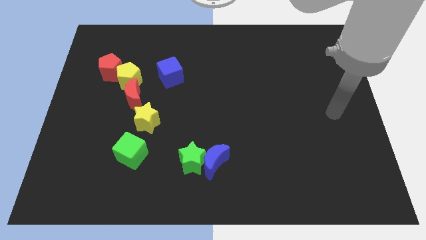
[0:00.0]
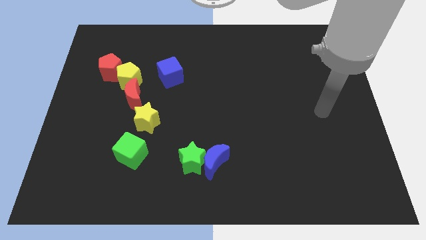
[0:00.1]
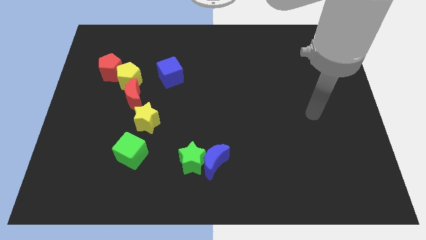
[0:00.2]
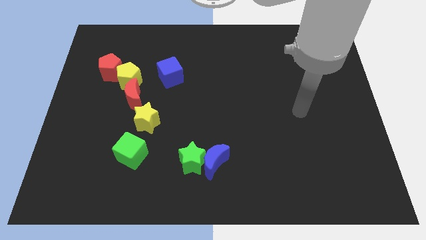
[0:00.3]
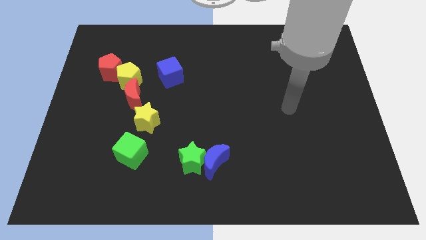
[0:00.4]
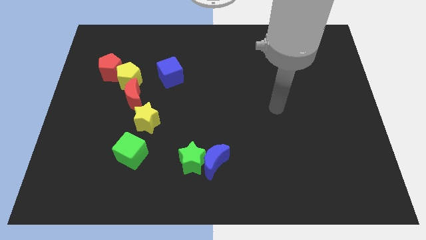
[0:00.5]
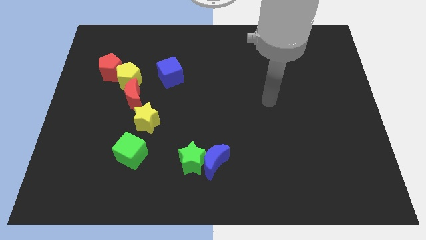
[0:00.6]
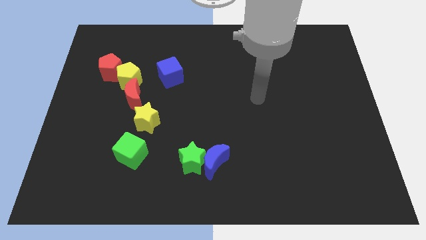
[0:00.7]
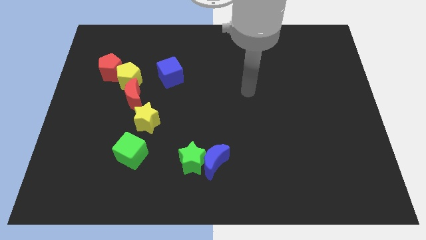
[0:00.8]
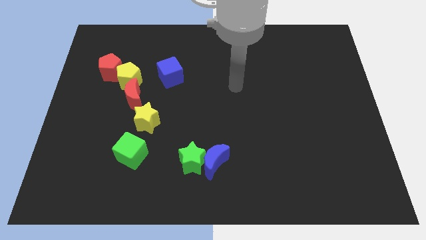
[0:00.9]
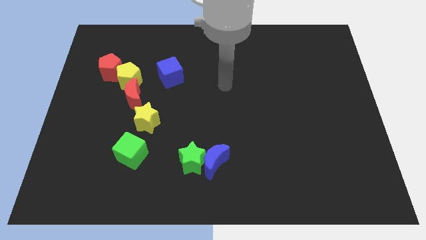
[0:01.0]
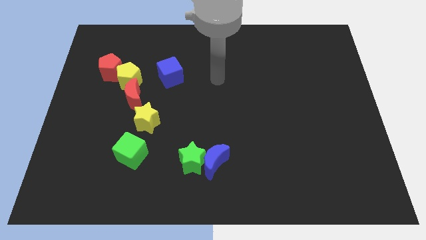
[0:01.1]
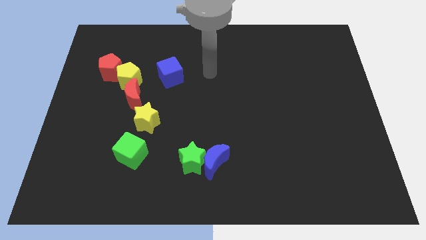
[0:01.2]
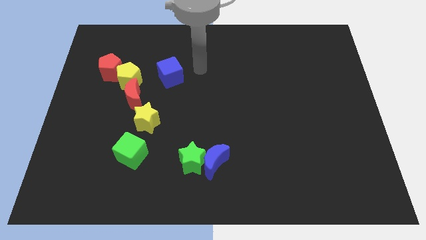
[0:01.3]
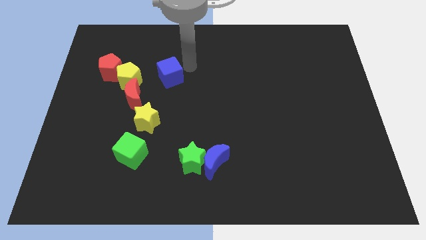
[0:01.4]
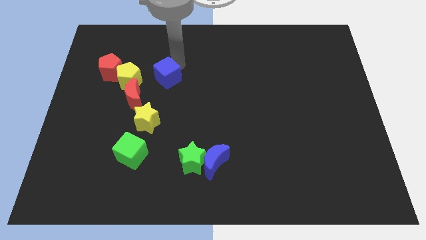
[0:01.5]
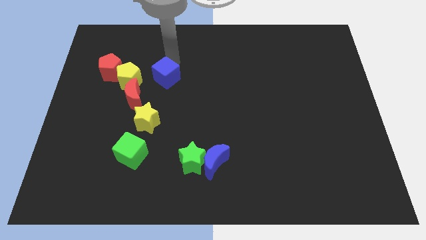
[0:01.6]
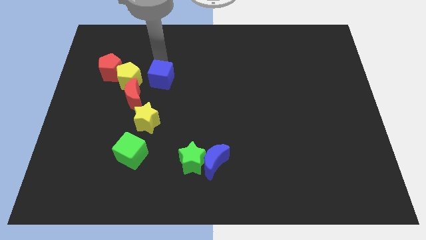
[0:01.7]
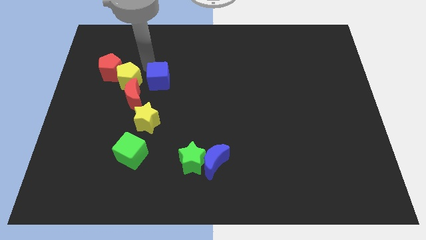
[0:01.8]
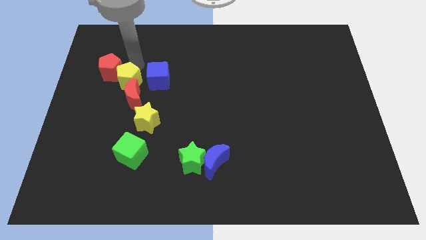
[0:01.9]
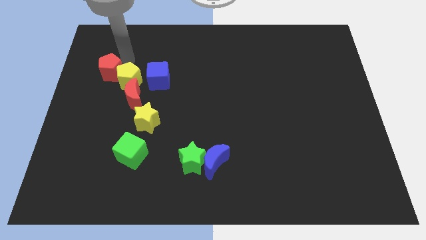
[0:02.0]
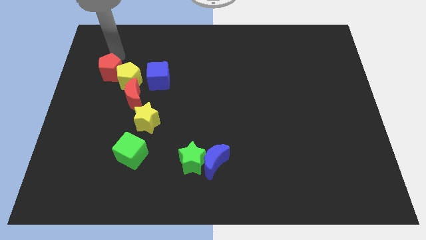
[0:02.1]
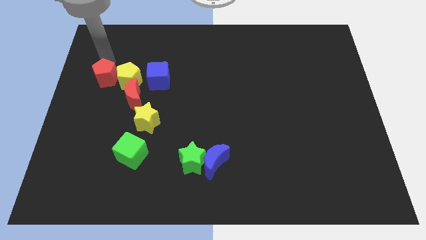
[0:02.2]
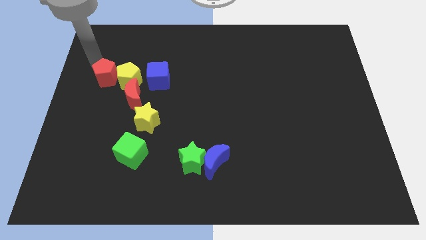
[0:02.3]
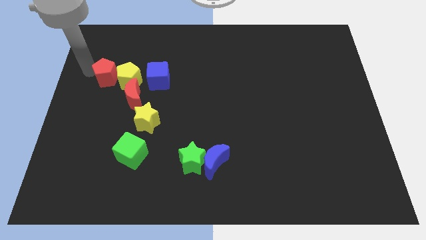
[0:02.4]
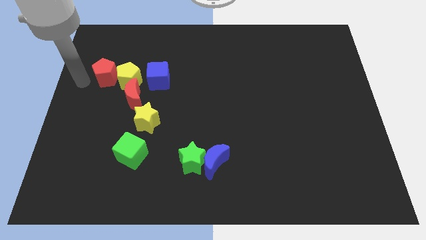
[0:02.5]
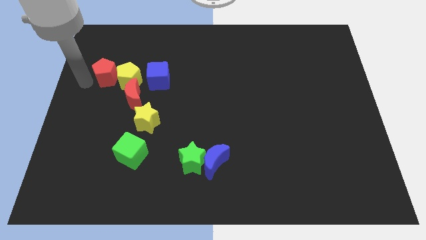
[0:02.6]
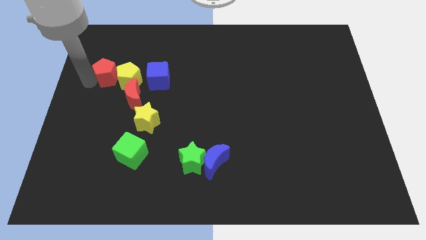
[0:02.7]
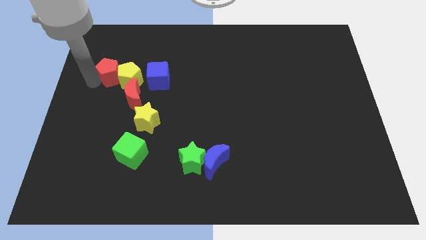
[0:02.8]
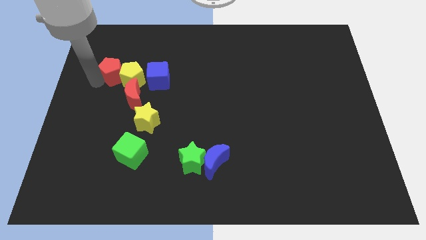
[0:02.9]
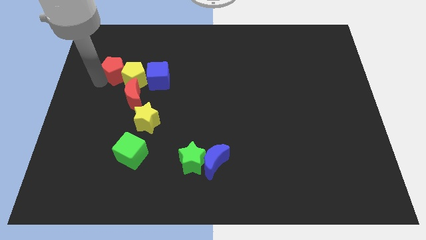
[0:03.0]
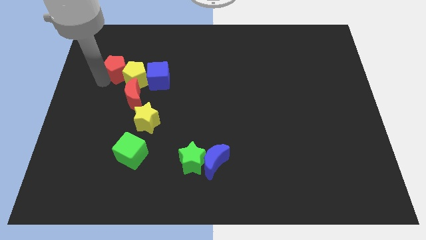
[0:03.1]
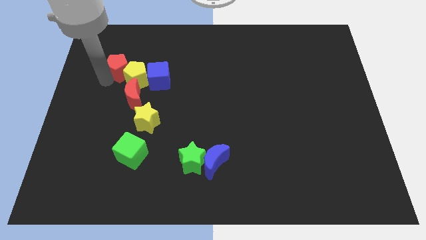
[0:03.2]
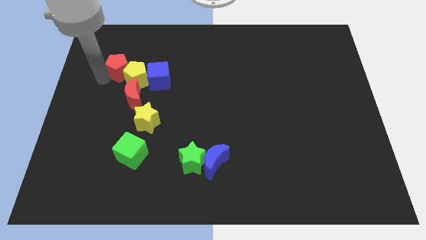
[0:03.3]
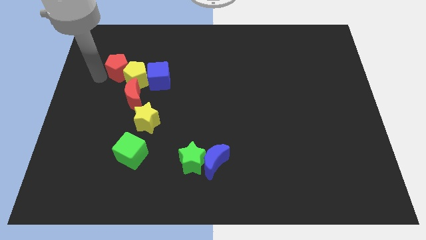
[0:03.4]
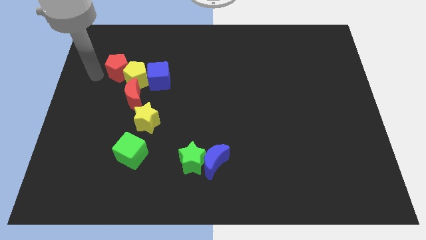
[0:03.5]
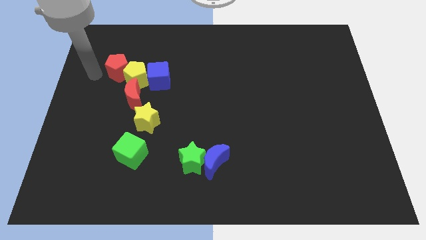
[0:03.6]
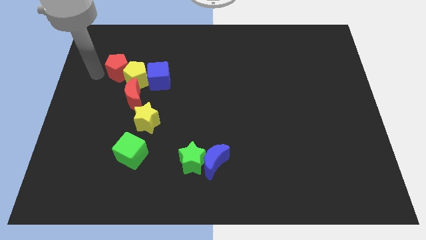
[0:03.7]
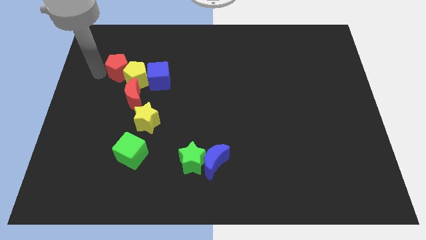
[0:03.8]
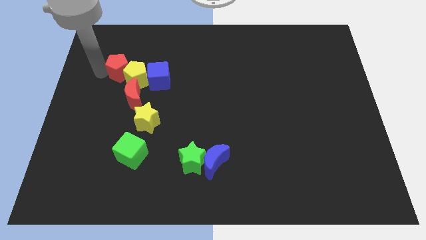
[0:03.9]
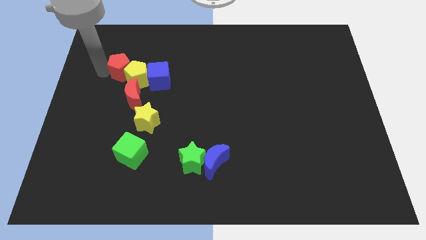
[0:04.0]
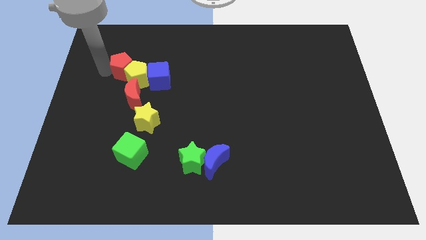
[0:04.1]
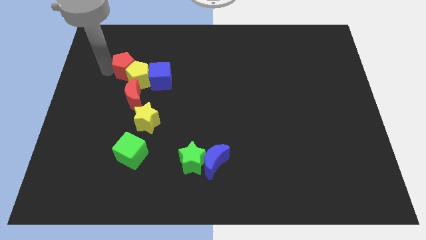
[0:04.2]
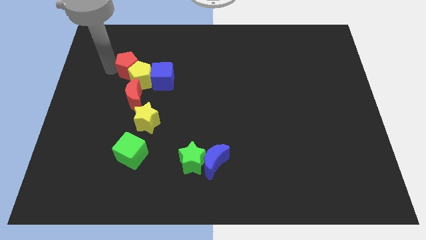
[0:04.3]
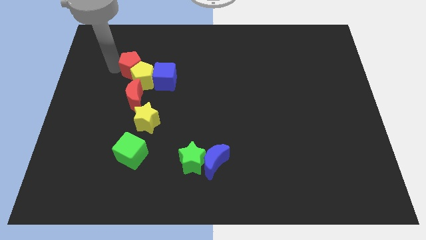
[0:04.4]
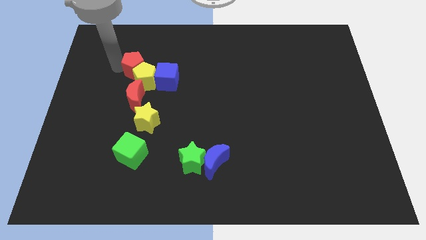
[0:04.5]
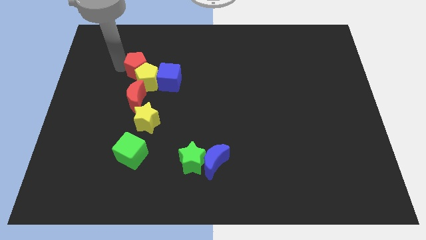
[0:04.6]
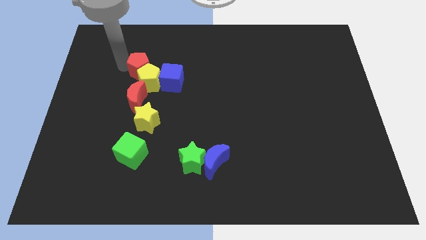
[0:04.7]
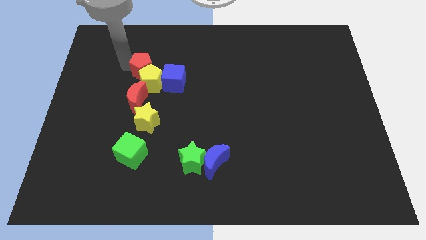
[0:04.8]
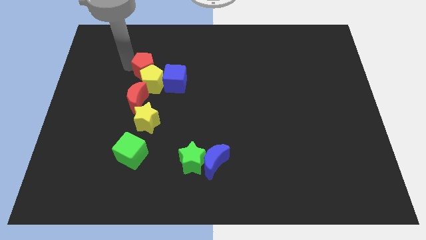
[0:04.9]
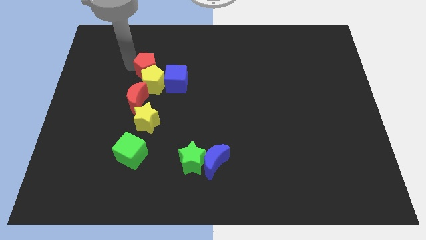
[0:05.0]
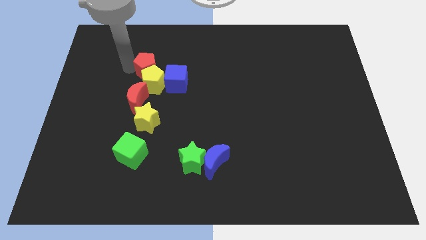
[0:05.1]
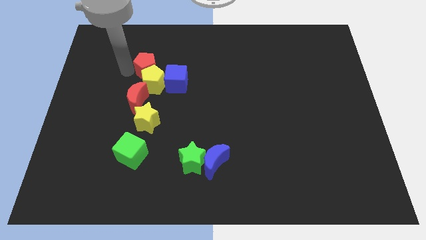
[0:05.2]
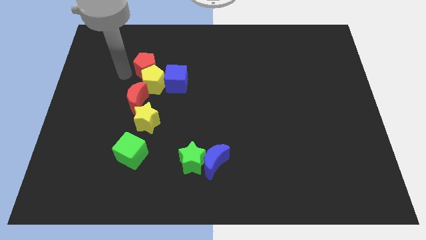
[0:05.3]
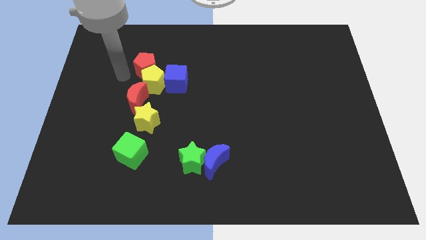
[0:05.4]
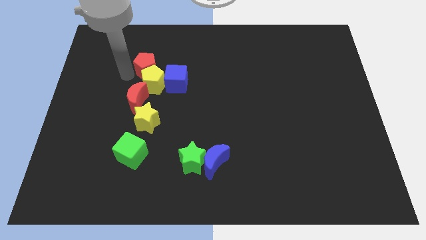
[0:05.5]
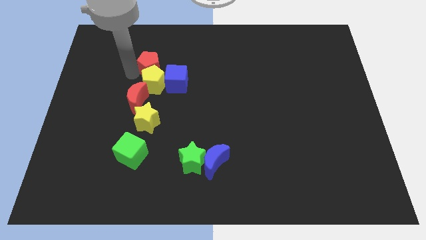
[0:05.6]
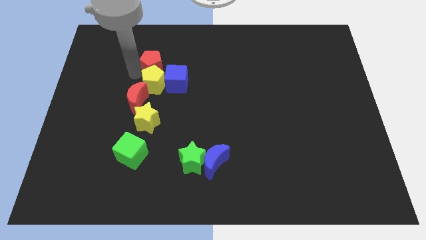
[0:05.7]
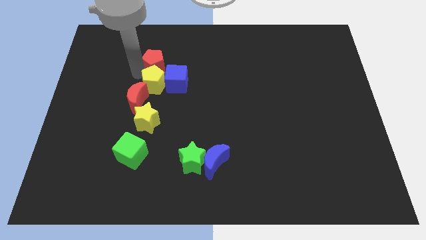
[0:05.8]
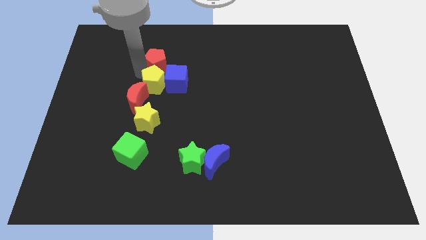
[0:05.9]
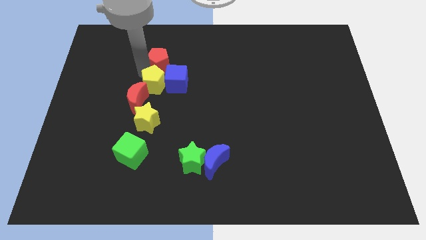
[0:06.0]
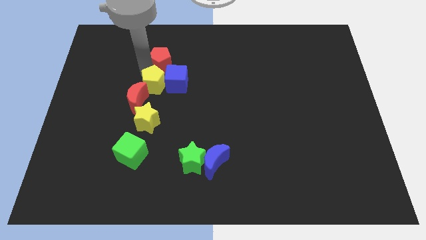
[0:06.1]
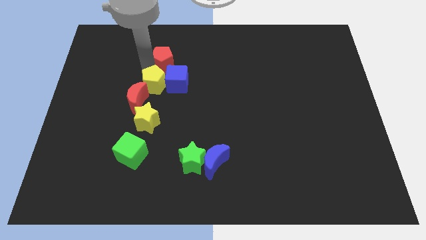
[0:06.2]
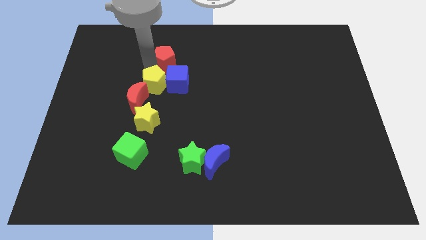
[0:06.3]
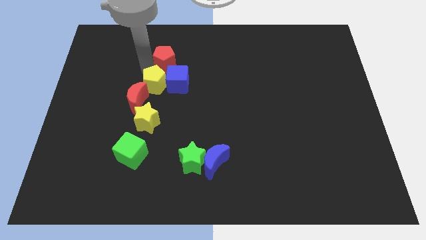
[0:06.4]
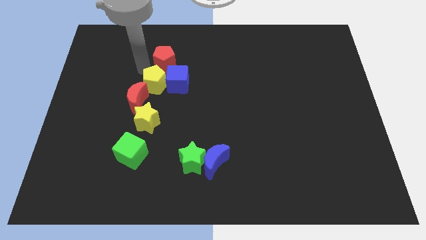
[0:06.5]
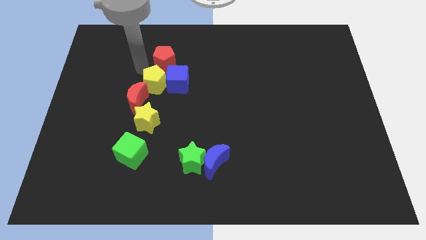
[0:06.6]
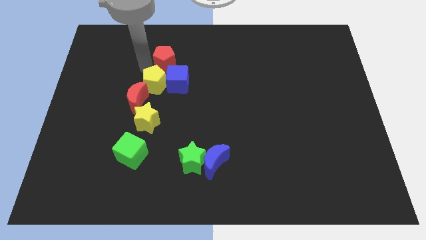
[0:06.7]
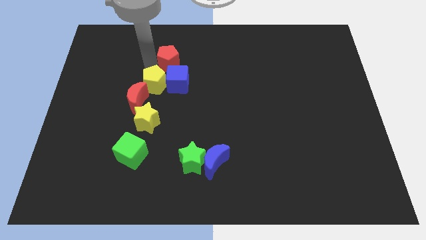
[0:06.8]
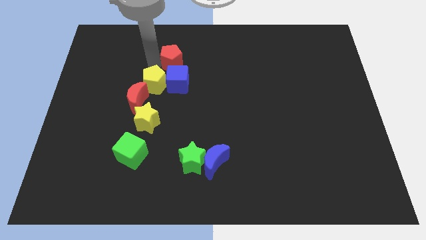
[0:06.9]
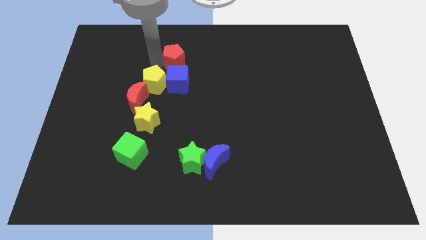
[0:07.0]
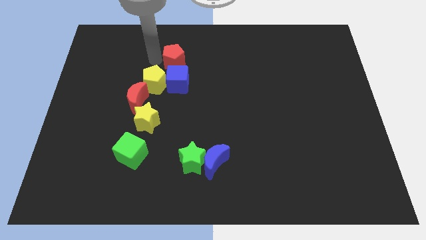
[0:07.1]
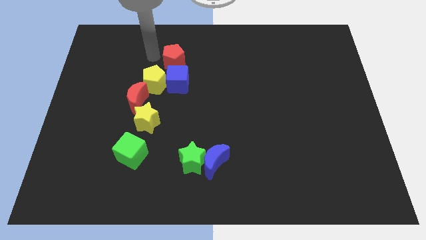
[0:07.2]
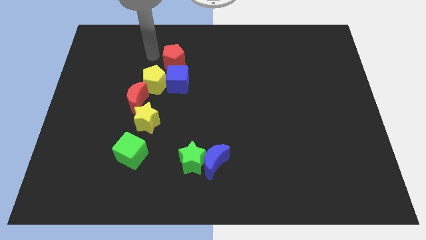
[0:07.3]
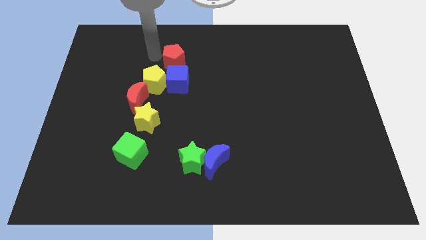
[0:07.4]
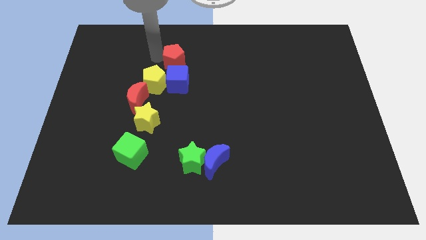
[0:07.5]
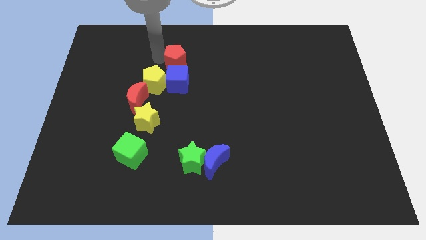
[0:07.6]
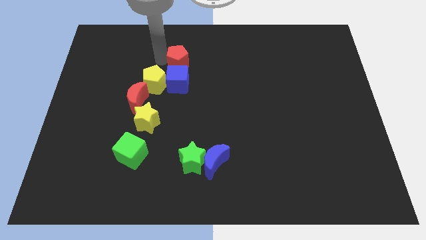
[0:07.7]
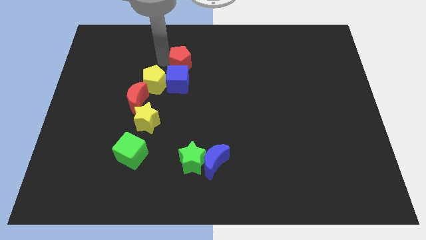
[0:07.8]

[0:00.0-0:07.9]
slide the red pentagon diagonally up and to the right of the blue cube
